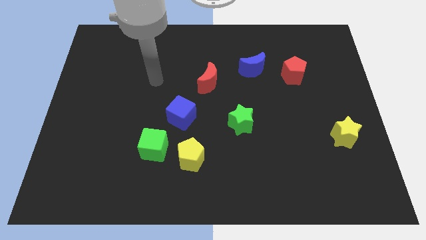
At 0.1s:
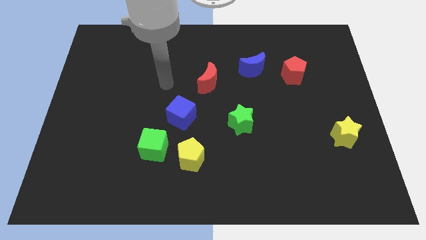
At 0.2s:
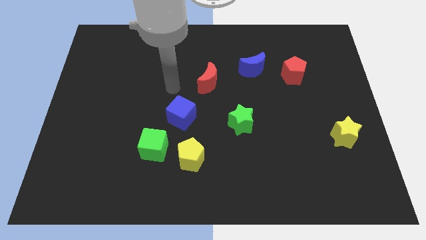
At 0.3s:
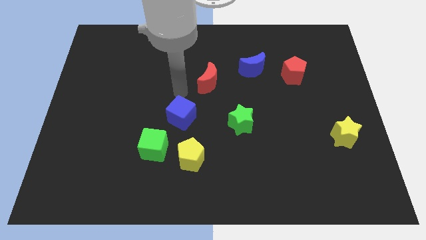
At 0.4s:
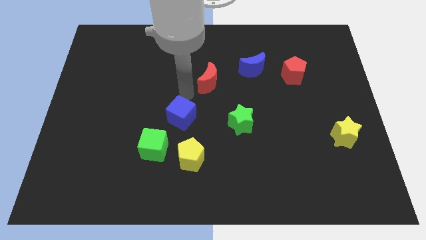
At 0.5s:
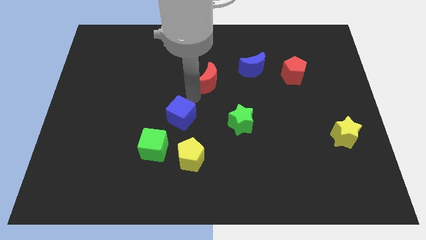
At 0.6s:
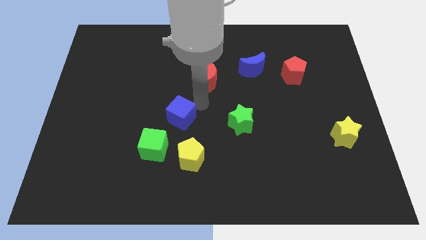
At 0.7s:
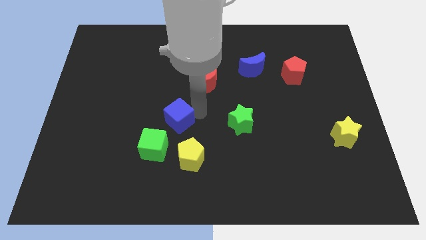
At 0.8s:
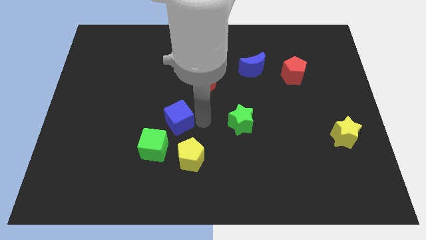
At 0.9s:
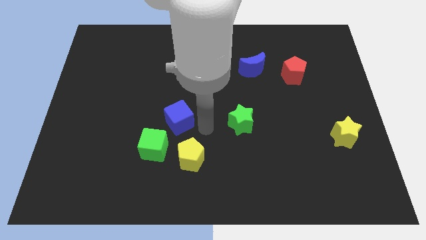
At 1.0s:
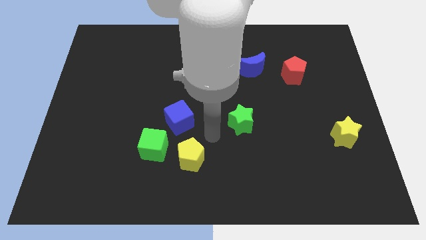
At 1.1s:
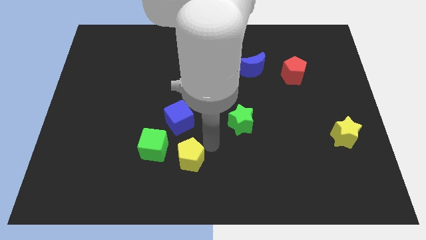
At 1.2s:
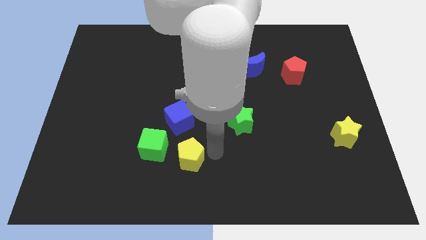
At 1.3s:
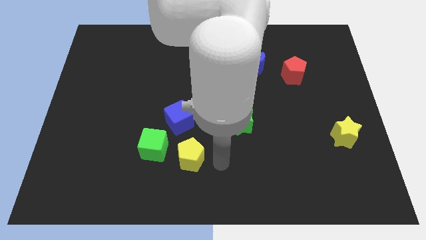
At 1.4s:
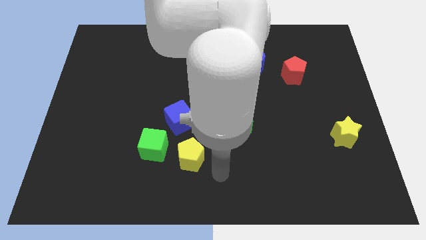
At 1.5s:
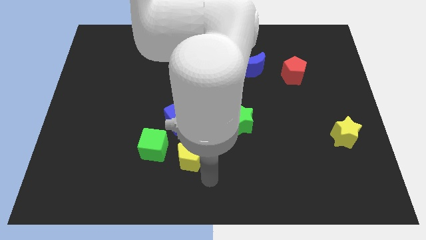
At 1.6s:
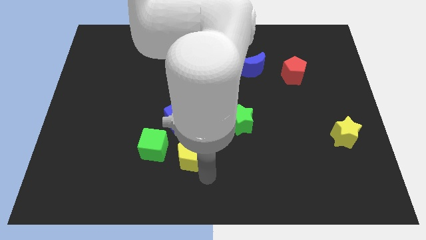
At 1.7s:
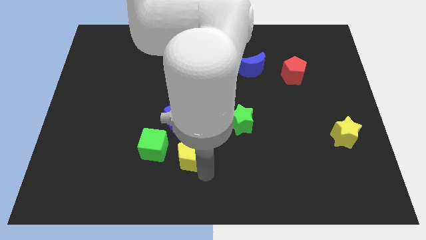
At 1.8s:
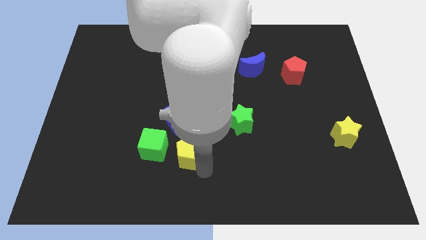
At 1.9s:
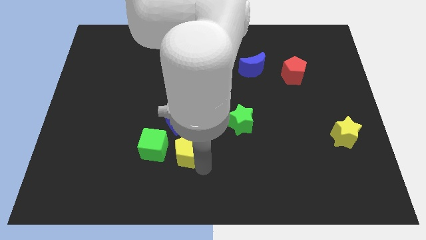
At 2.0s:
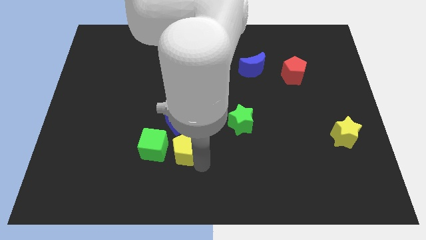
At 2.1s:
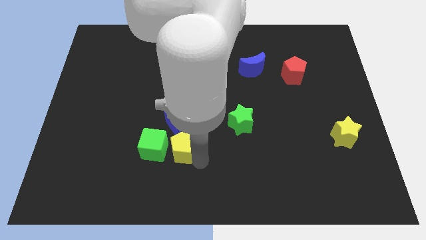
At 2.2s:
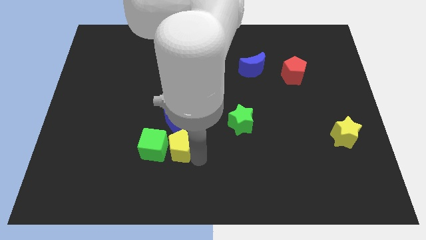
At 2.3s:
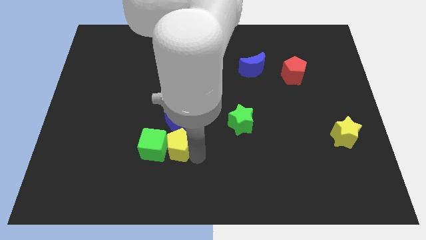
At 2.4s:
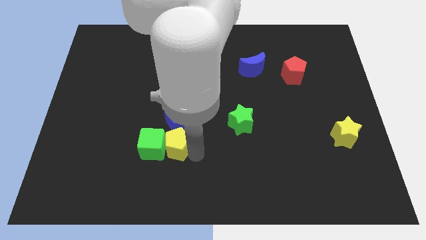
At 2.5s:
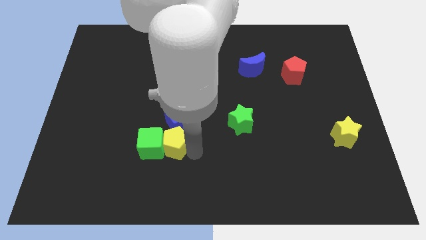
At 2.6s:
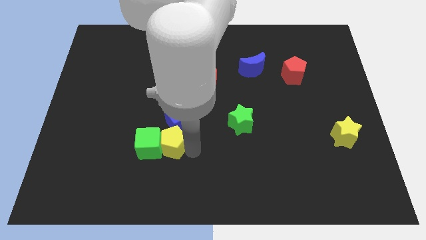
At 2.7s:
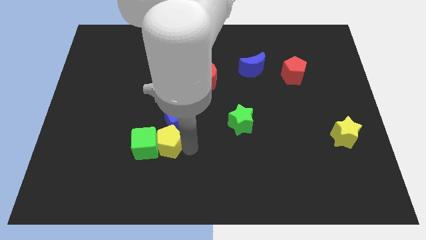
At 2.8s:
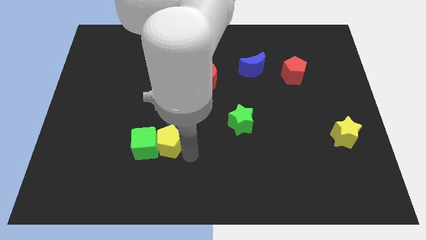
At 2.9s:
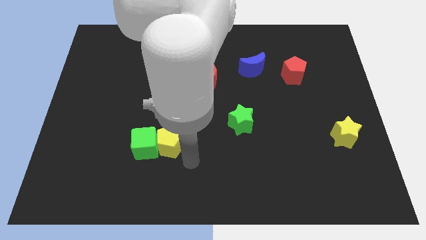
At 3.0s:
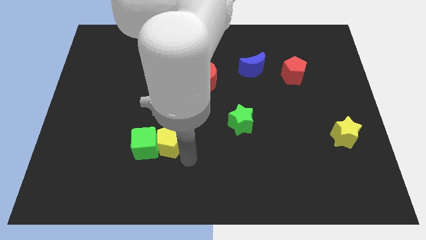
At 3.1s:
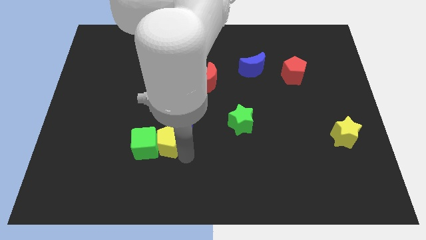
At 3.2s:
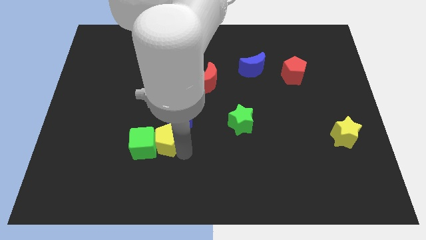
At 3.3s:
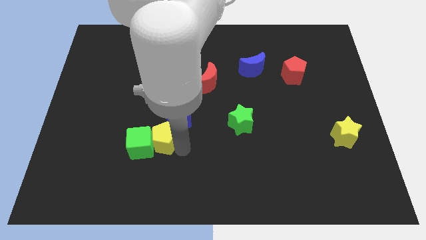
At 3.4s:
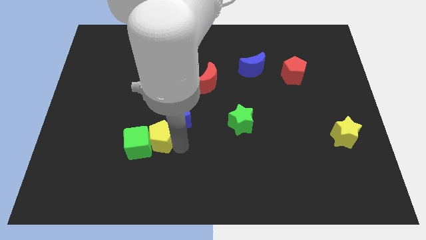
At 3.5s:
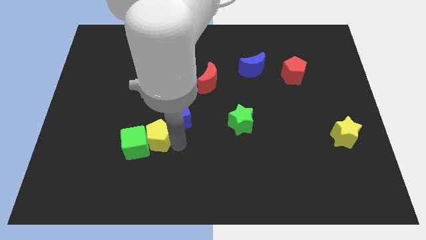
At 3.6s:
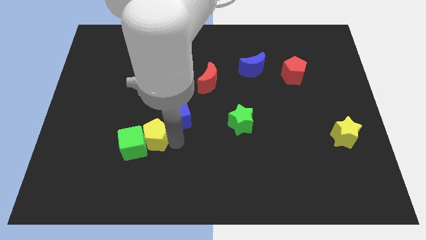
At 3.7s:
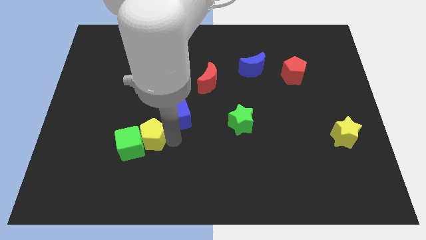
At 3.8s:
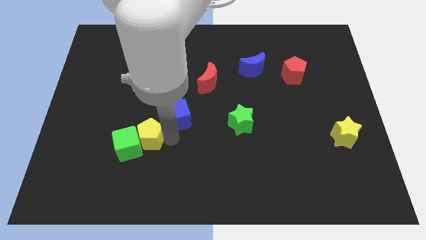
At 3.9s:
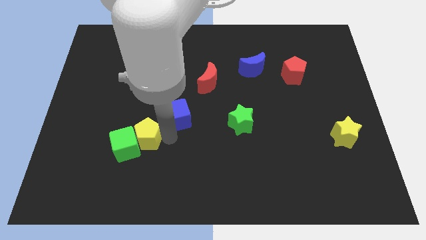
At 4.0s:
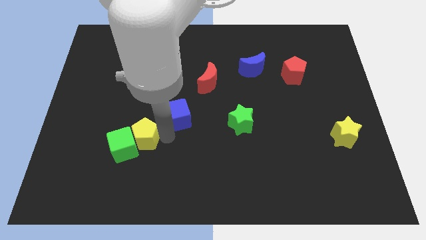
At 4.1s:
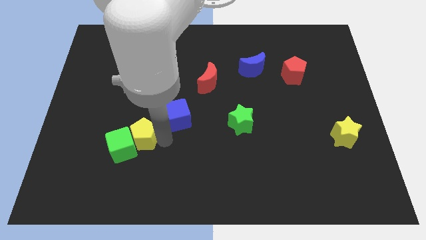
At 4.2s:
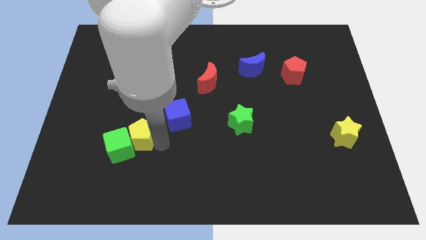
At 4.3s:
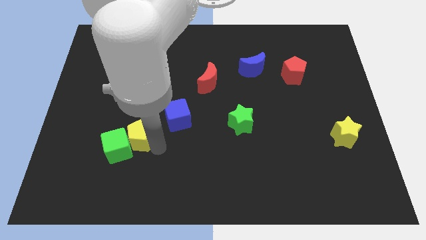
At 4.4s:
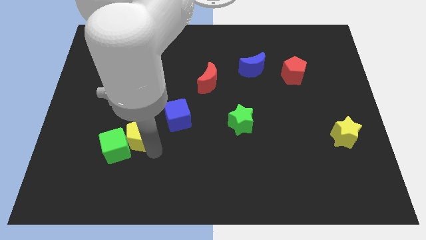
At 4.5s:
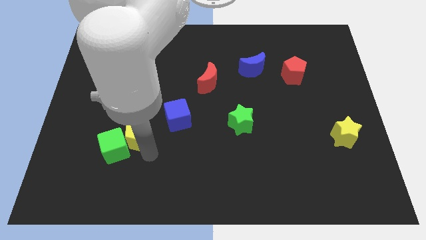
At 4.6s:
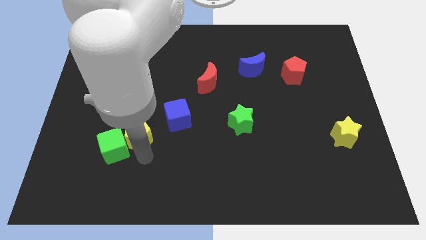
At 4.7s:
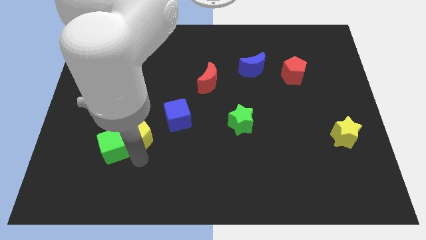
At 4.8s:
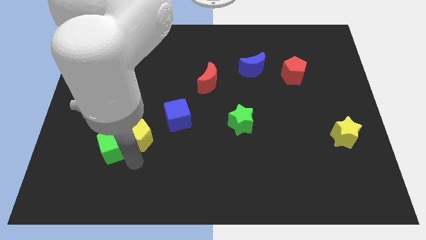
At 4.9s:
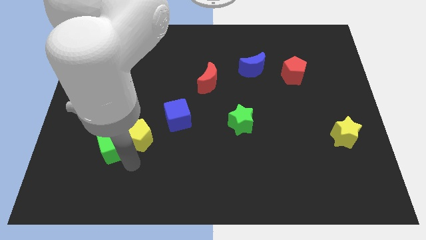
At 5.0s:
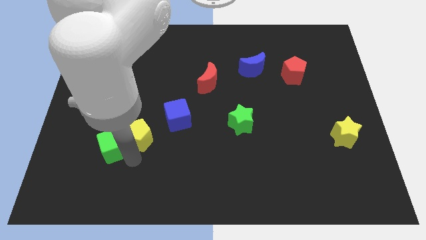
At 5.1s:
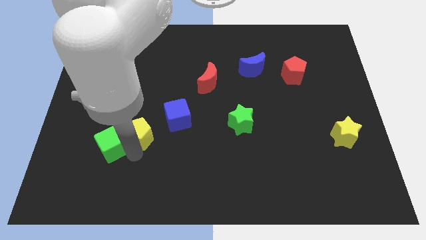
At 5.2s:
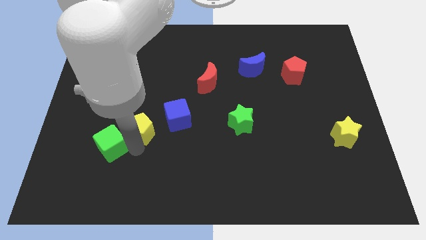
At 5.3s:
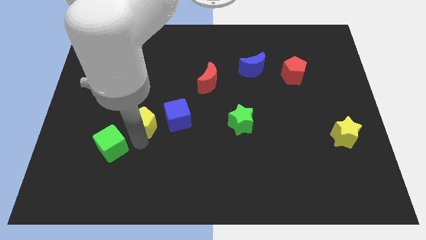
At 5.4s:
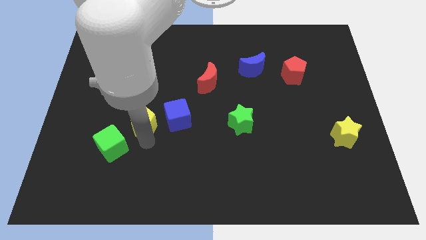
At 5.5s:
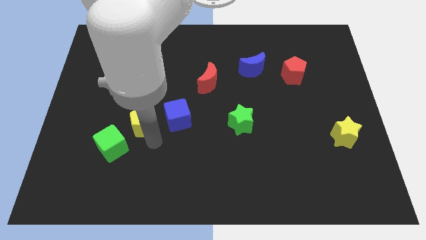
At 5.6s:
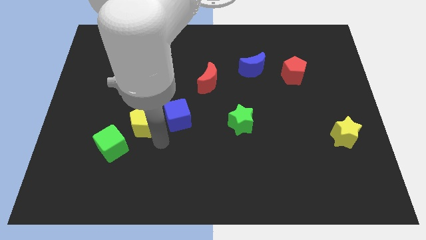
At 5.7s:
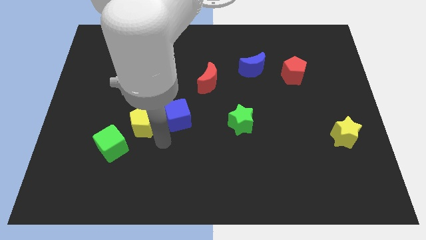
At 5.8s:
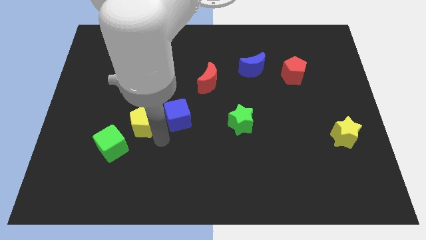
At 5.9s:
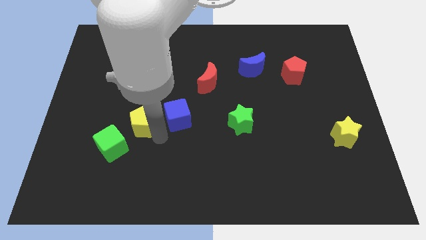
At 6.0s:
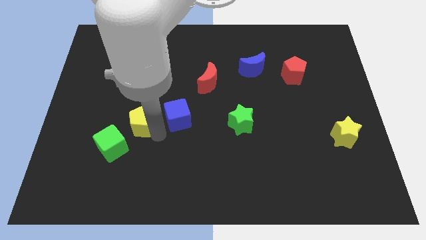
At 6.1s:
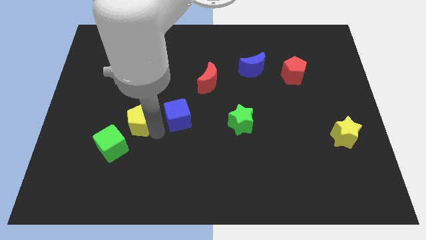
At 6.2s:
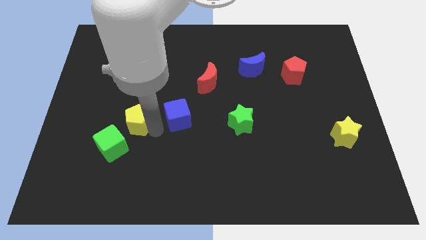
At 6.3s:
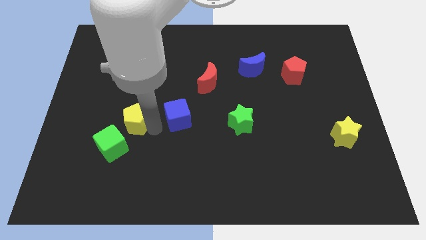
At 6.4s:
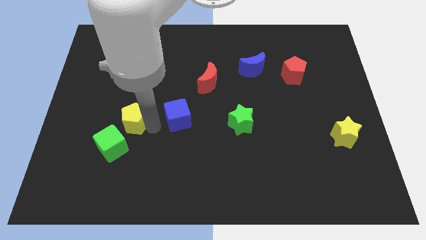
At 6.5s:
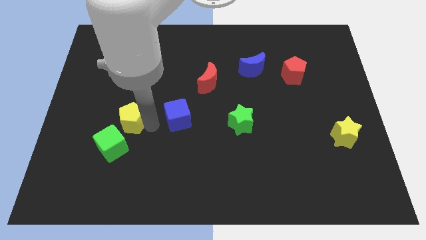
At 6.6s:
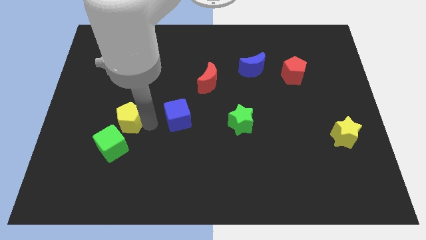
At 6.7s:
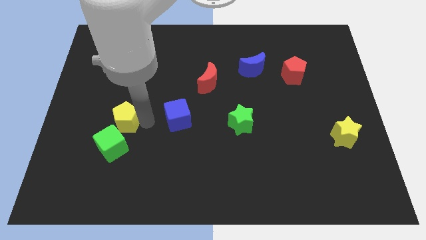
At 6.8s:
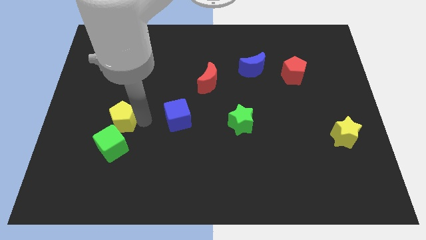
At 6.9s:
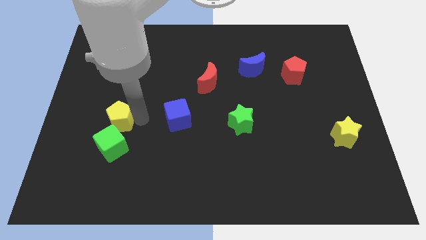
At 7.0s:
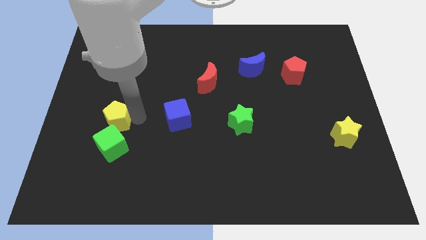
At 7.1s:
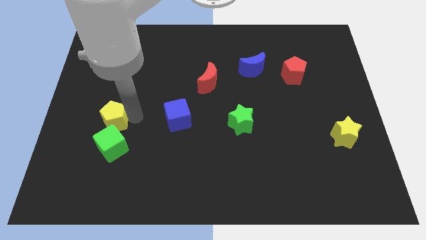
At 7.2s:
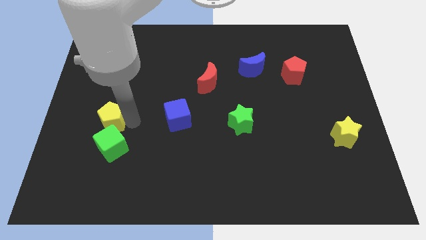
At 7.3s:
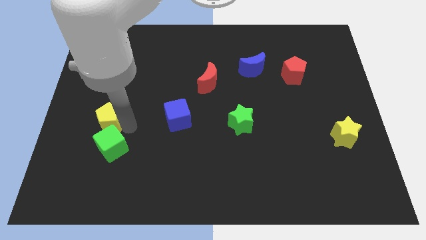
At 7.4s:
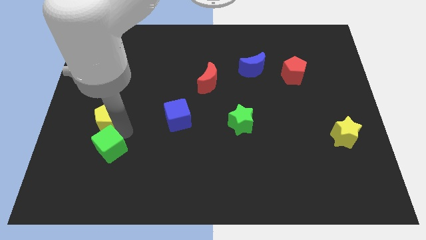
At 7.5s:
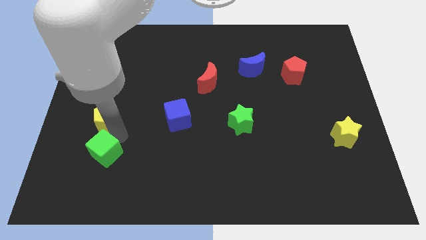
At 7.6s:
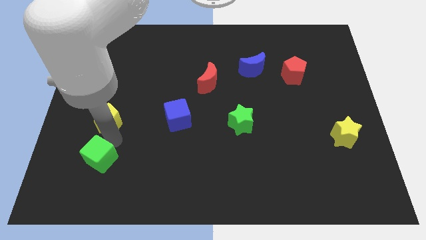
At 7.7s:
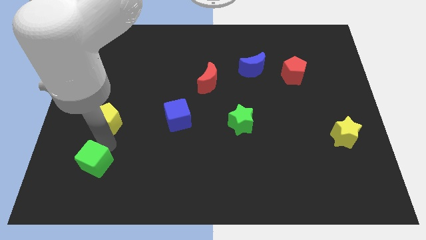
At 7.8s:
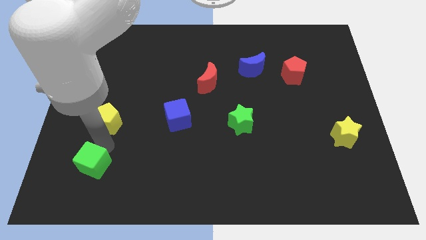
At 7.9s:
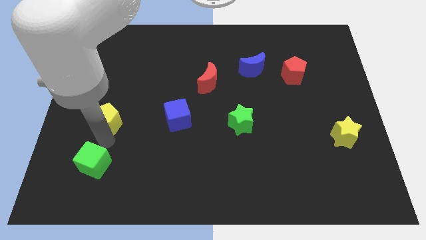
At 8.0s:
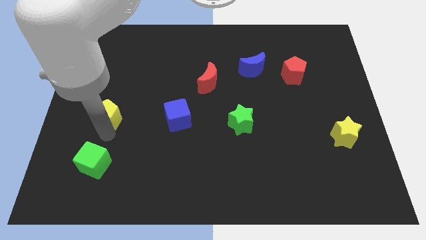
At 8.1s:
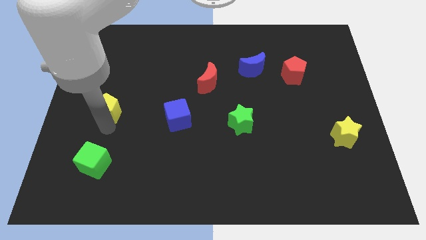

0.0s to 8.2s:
slide the yellow pentagon up and to the left diagonally

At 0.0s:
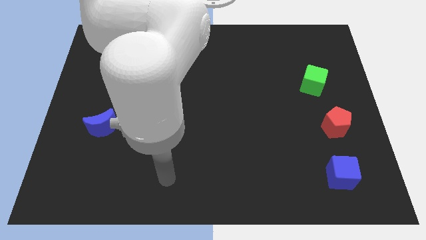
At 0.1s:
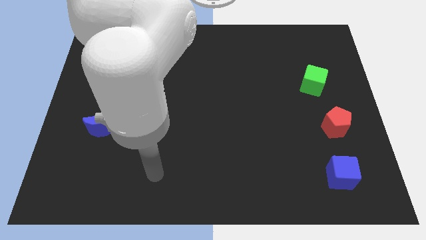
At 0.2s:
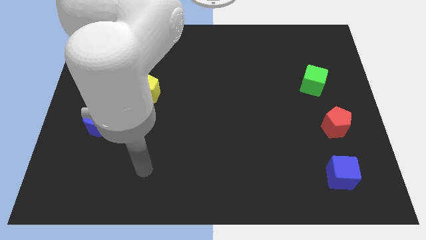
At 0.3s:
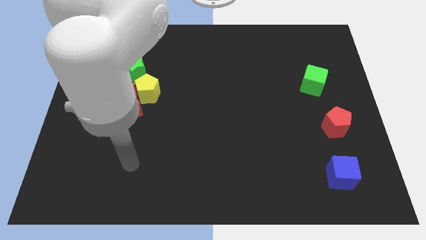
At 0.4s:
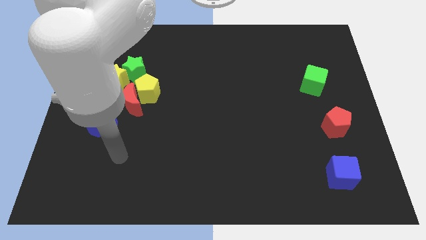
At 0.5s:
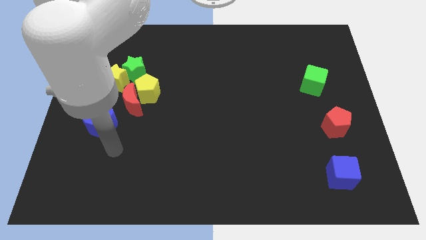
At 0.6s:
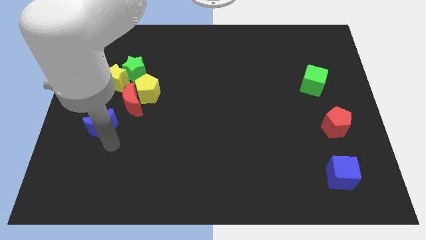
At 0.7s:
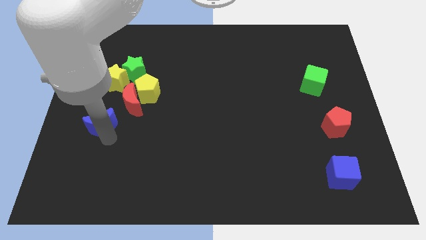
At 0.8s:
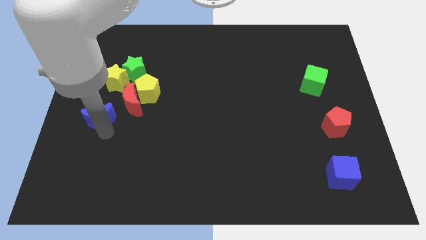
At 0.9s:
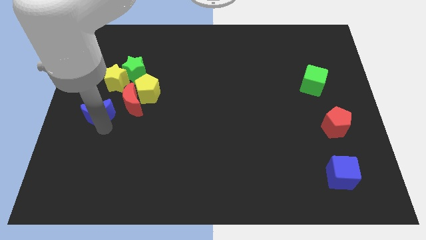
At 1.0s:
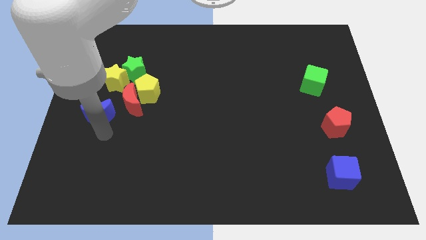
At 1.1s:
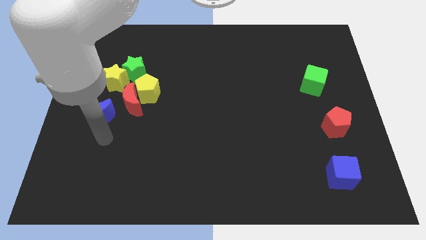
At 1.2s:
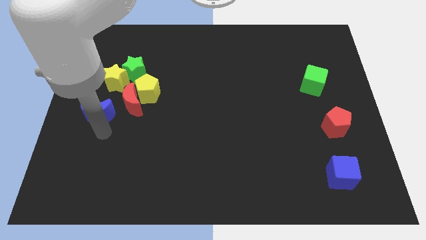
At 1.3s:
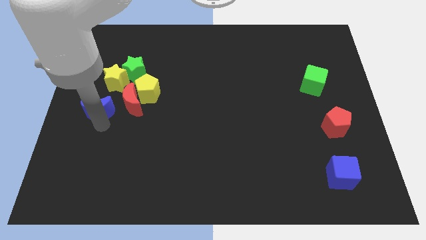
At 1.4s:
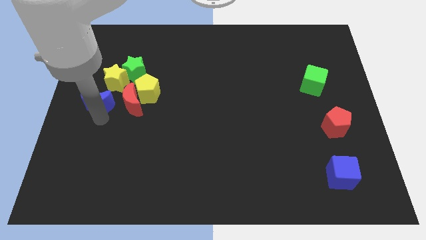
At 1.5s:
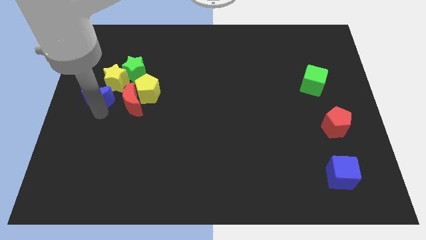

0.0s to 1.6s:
slightly move the blue moon upwards
